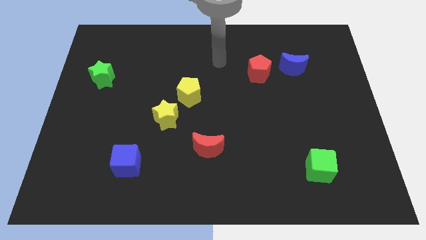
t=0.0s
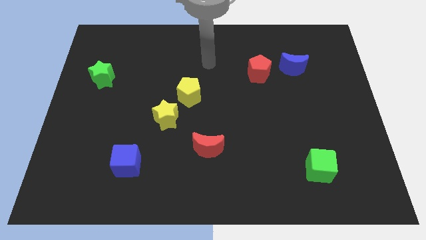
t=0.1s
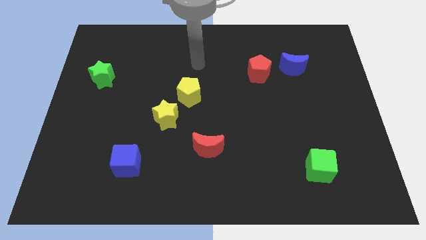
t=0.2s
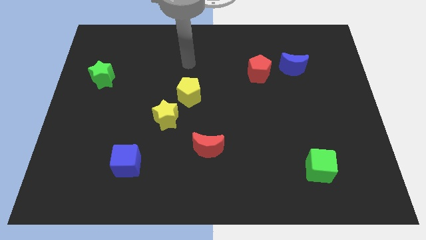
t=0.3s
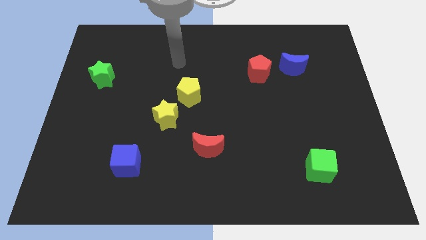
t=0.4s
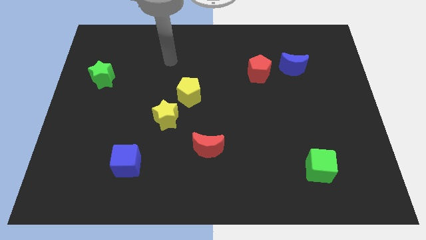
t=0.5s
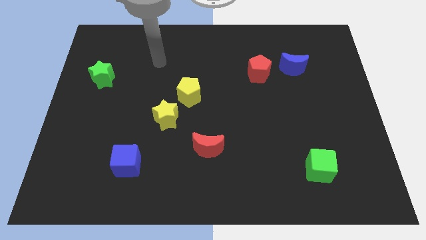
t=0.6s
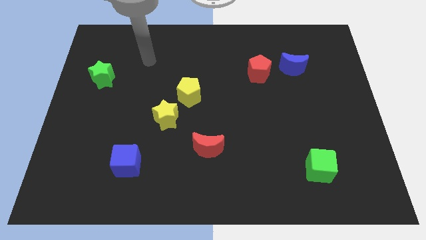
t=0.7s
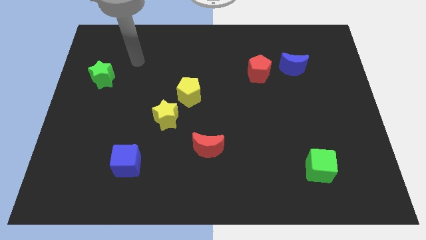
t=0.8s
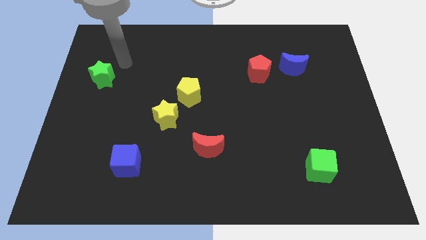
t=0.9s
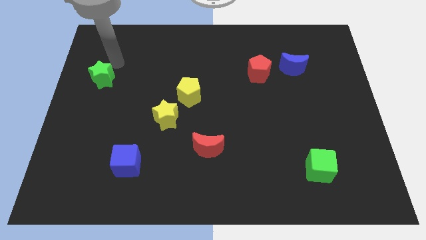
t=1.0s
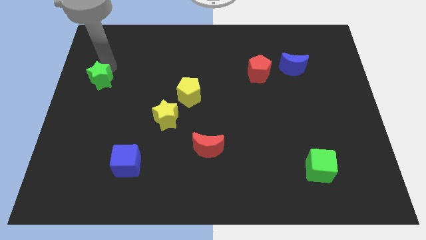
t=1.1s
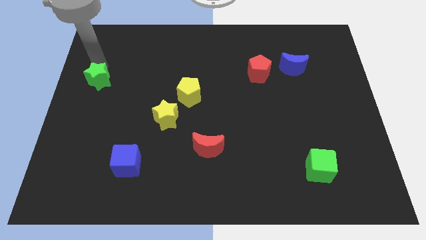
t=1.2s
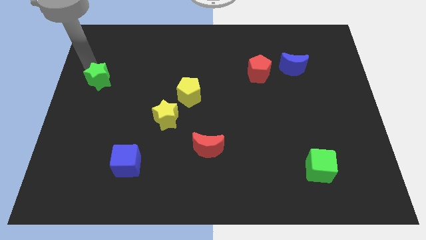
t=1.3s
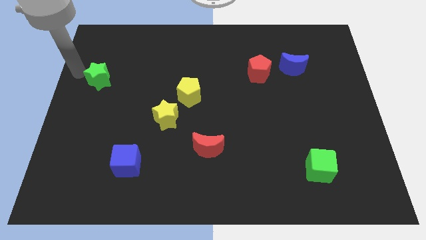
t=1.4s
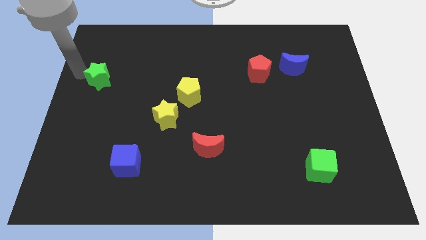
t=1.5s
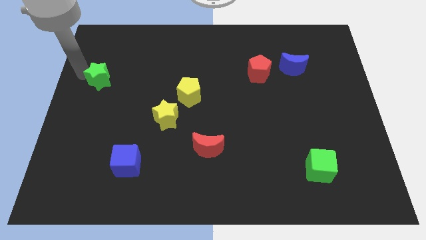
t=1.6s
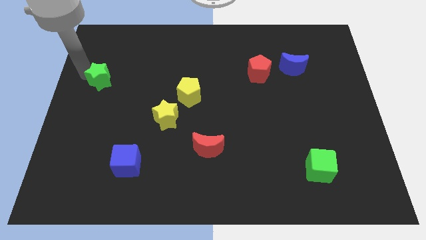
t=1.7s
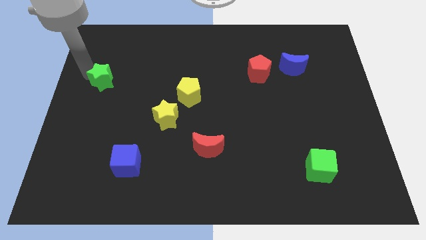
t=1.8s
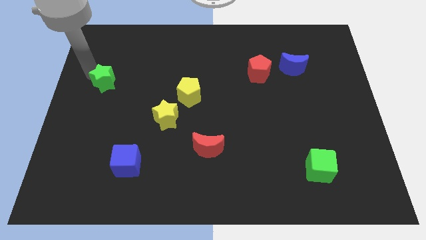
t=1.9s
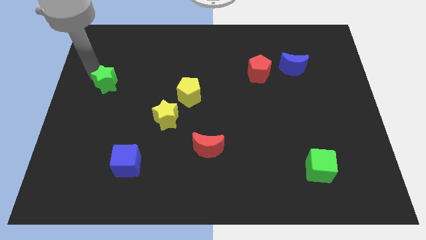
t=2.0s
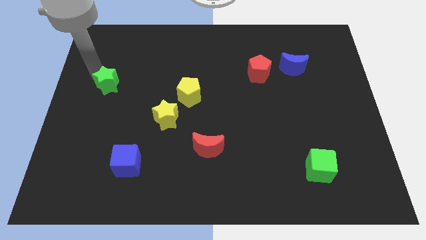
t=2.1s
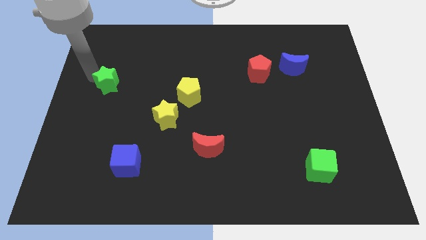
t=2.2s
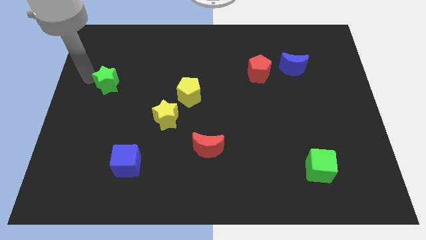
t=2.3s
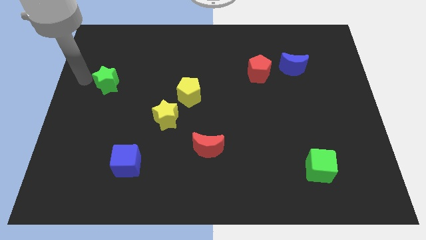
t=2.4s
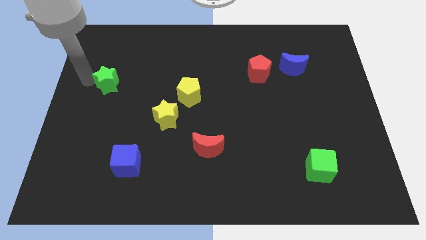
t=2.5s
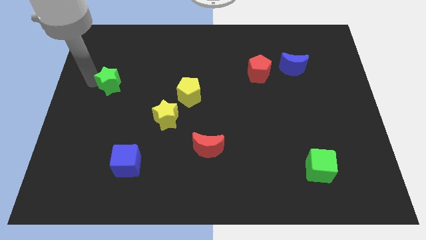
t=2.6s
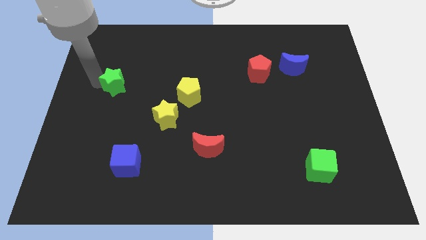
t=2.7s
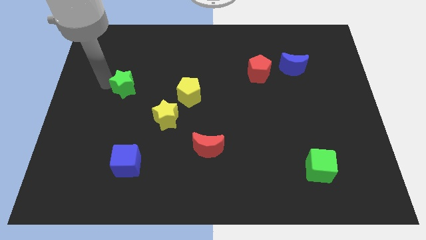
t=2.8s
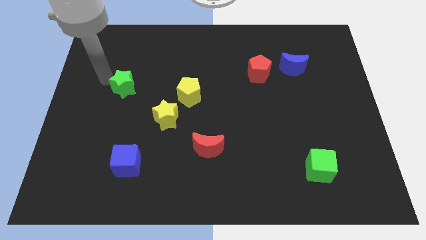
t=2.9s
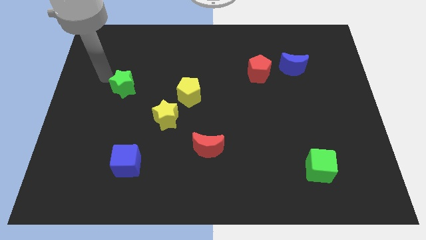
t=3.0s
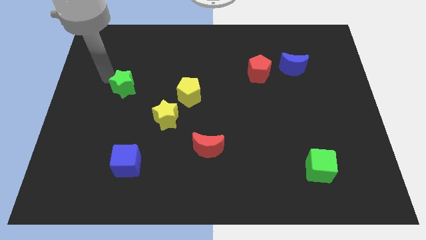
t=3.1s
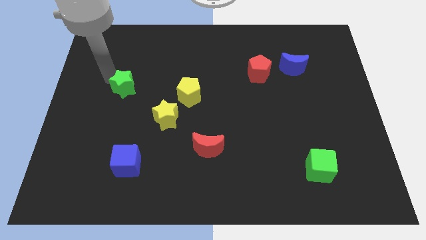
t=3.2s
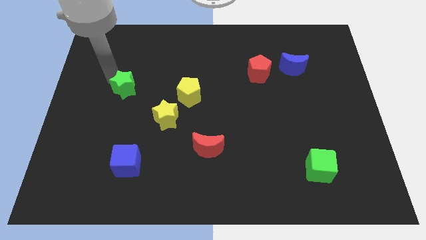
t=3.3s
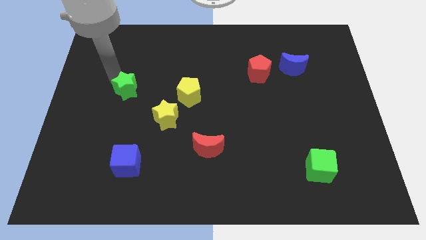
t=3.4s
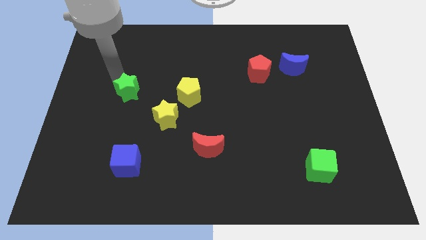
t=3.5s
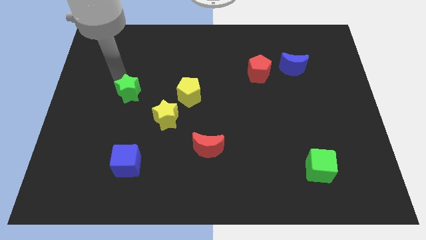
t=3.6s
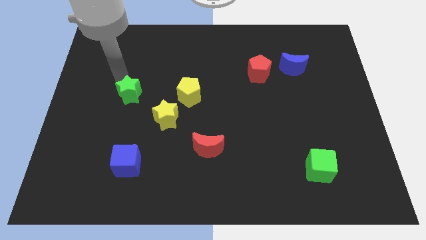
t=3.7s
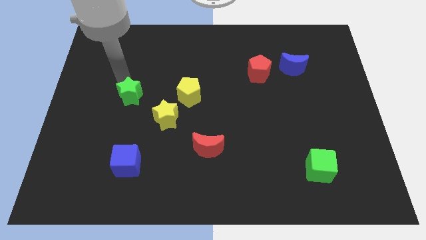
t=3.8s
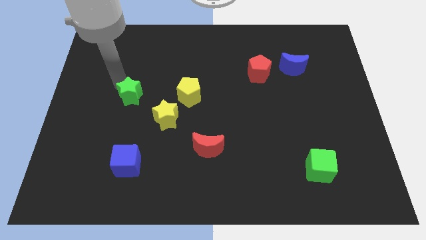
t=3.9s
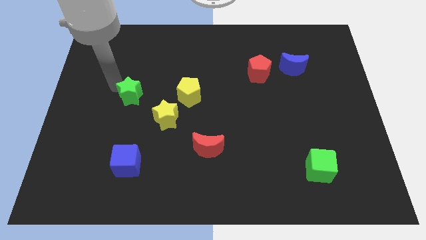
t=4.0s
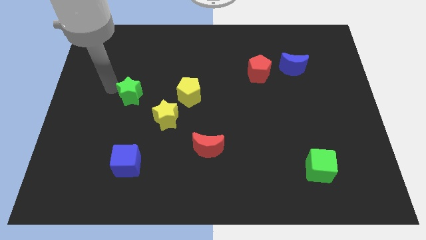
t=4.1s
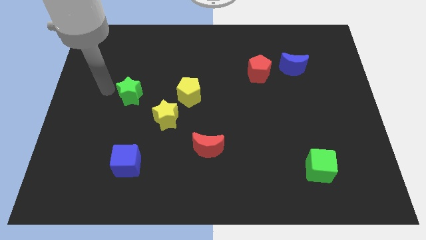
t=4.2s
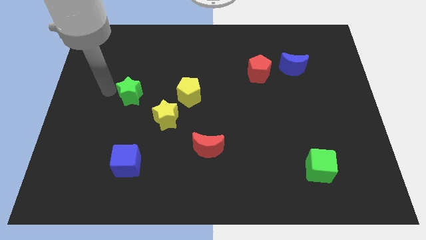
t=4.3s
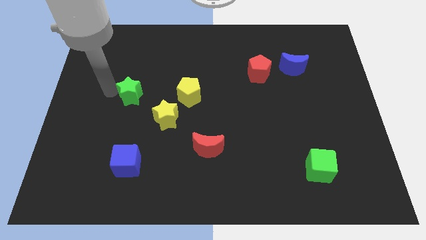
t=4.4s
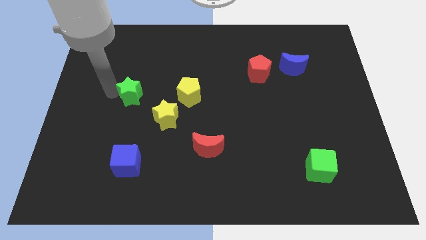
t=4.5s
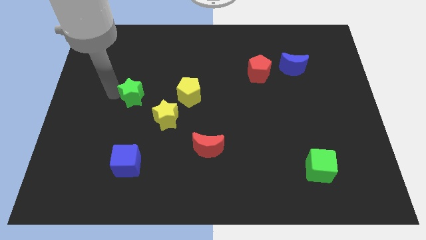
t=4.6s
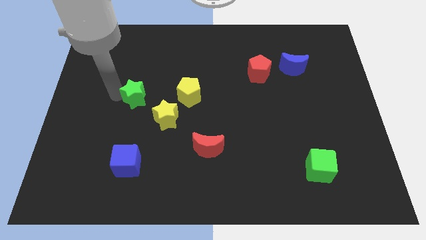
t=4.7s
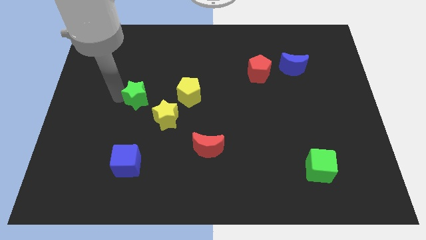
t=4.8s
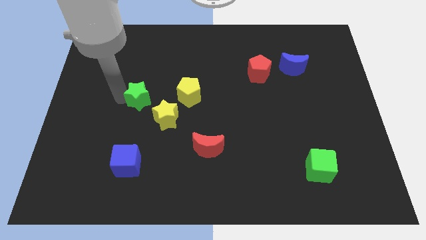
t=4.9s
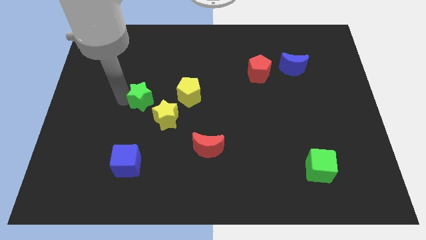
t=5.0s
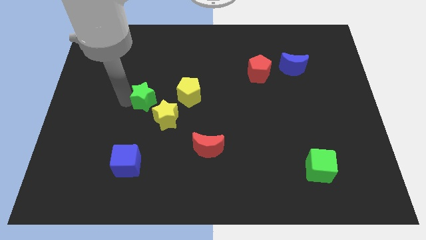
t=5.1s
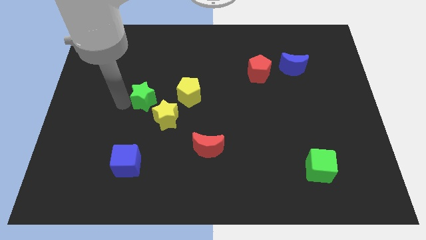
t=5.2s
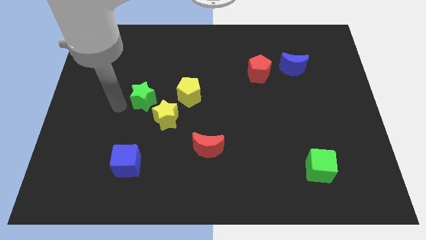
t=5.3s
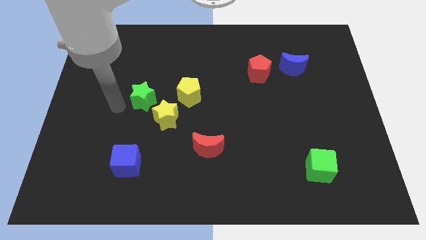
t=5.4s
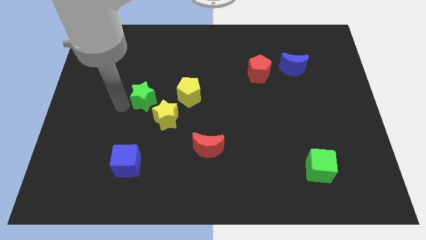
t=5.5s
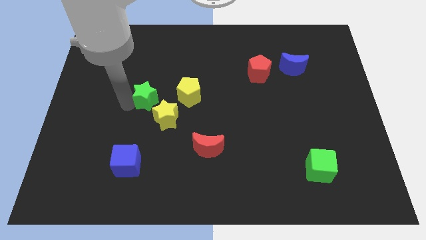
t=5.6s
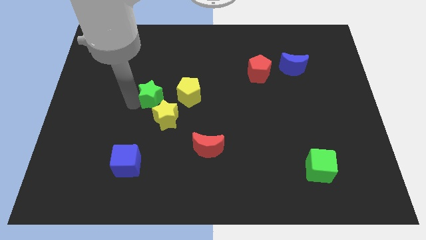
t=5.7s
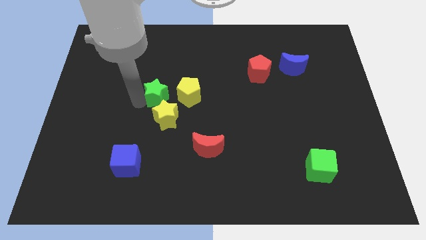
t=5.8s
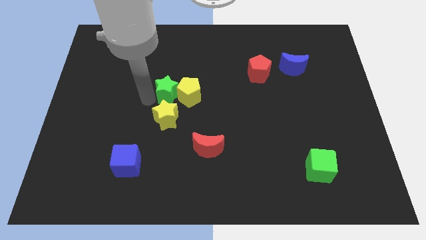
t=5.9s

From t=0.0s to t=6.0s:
move the green star towards the yellow pentagon

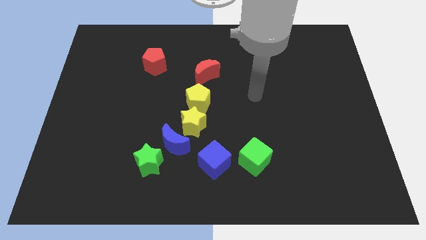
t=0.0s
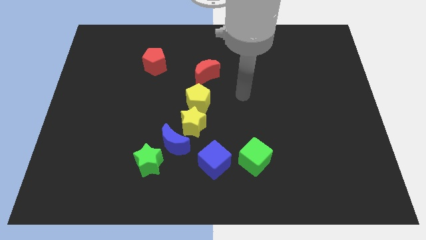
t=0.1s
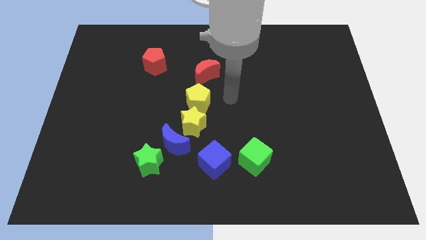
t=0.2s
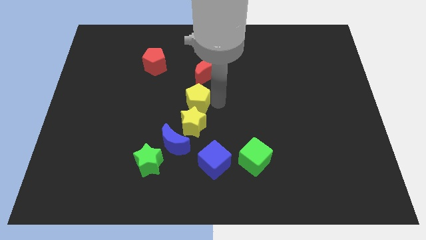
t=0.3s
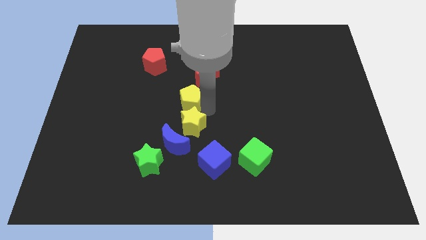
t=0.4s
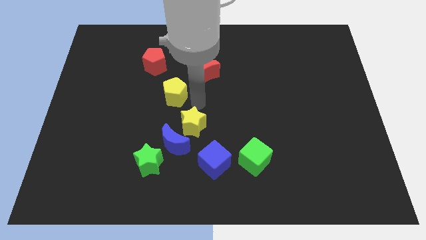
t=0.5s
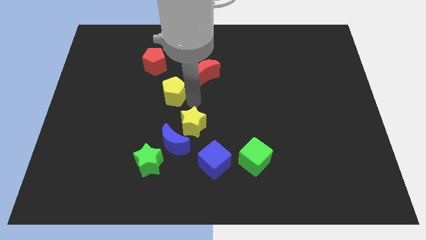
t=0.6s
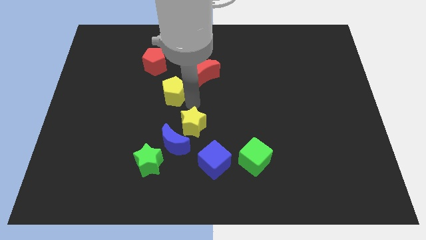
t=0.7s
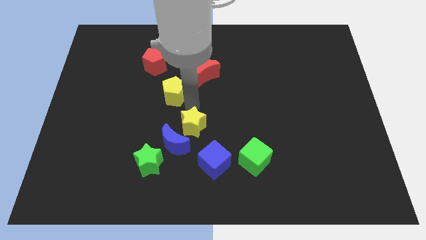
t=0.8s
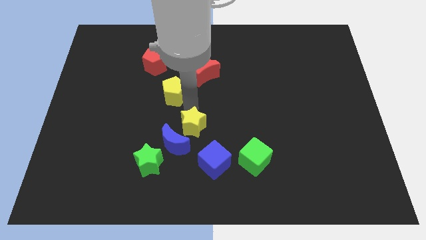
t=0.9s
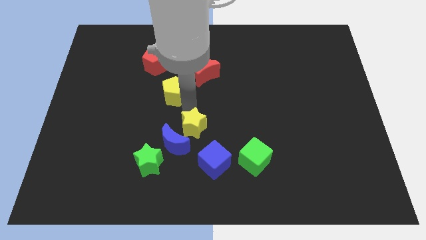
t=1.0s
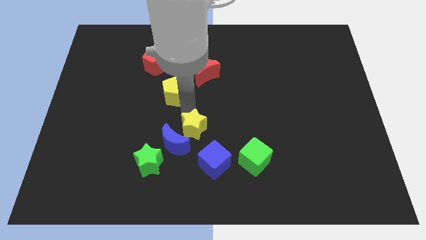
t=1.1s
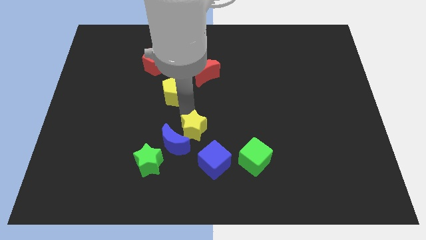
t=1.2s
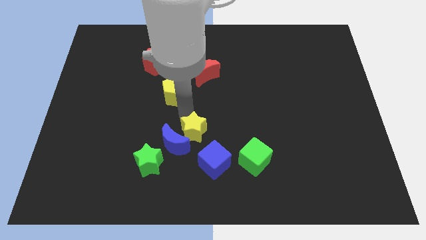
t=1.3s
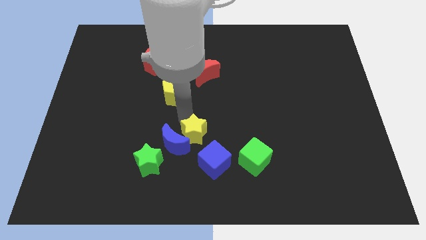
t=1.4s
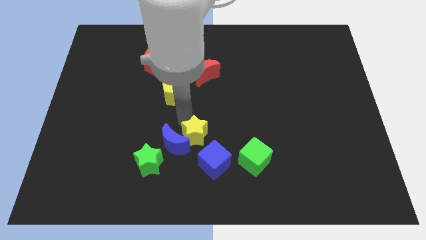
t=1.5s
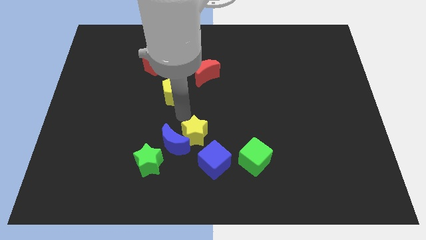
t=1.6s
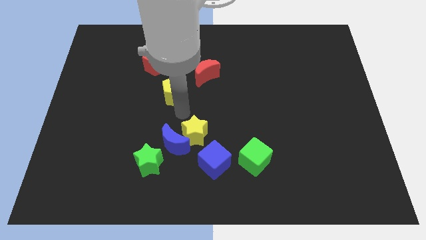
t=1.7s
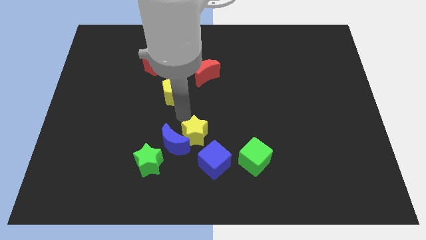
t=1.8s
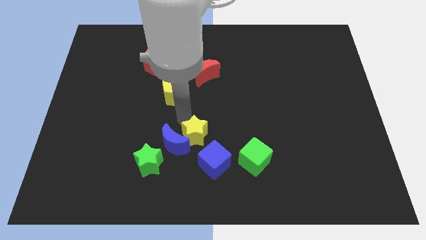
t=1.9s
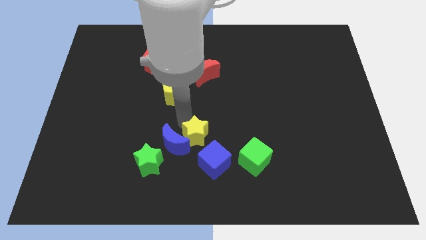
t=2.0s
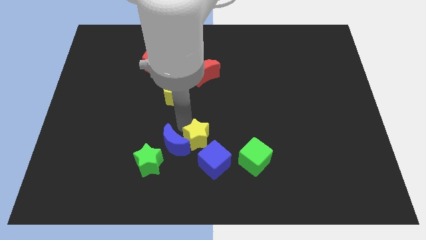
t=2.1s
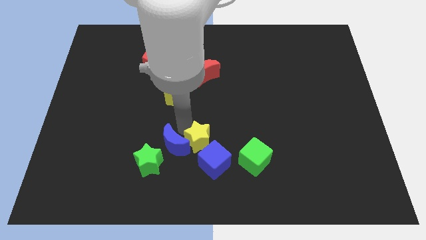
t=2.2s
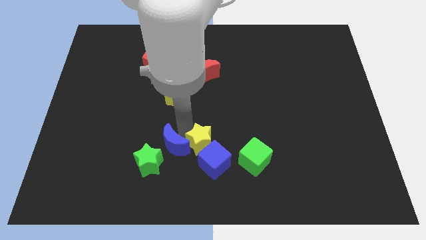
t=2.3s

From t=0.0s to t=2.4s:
push the yellow star towards the blue cube
